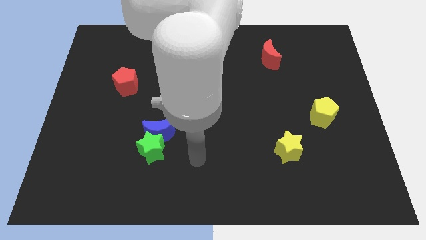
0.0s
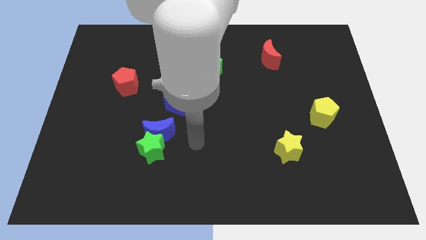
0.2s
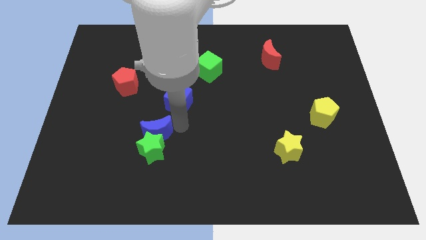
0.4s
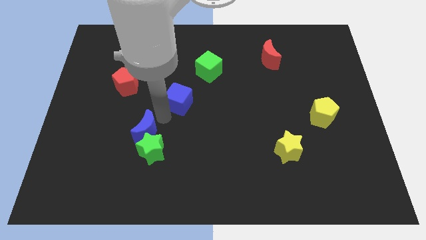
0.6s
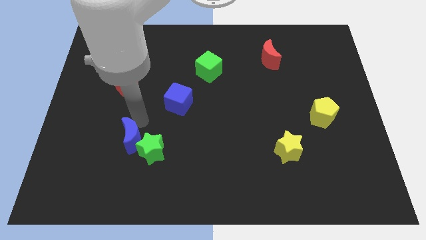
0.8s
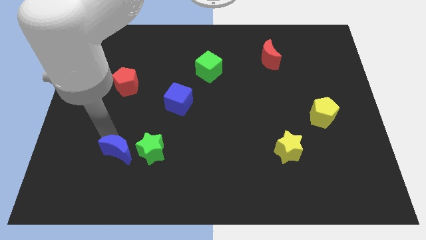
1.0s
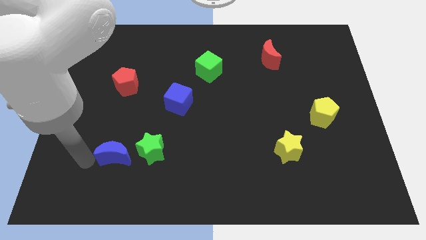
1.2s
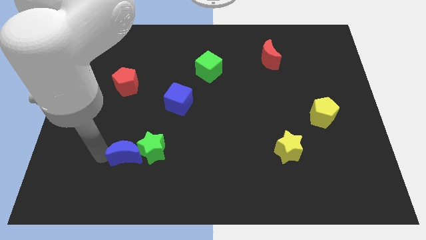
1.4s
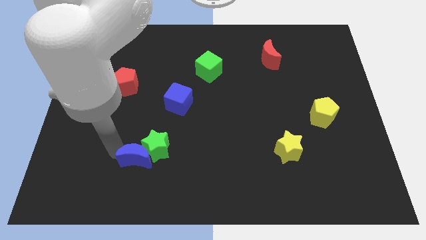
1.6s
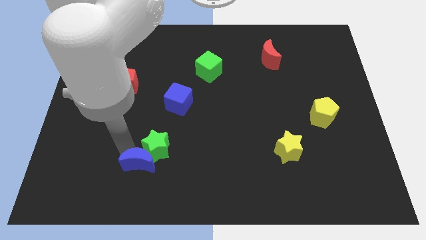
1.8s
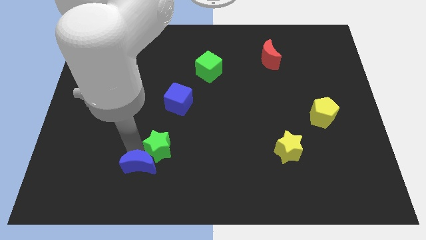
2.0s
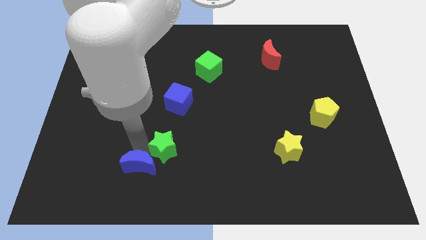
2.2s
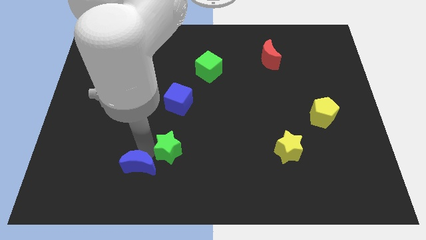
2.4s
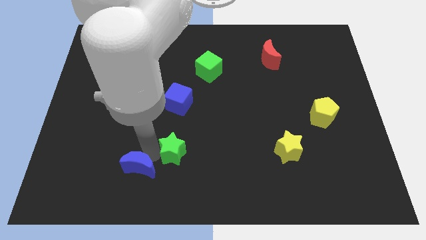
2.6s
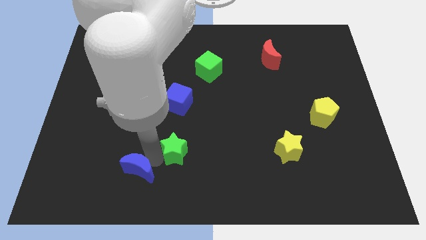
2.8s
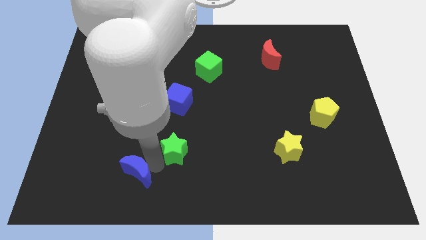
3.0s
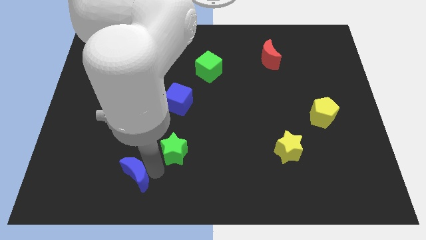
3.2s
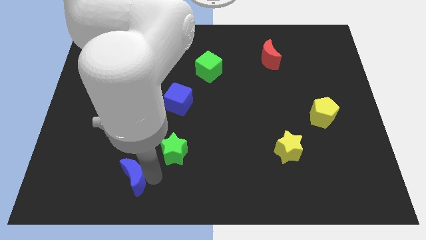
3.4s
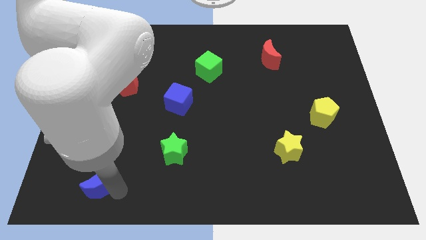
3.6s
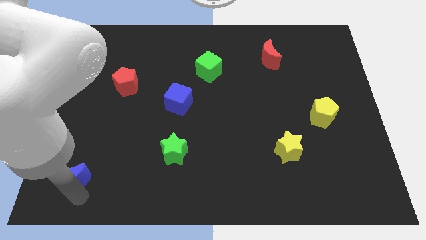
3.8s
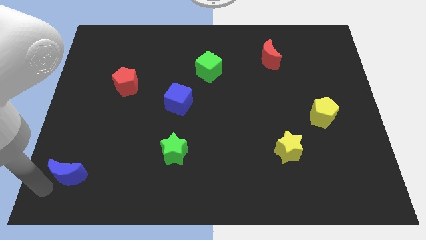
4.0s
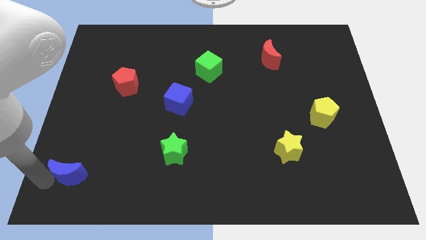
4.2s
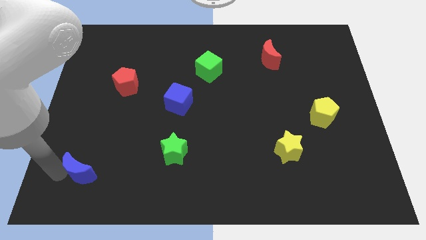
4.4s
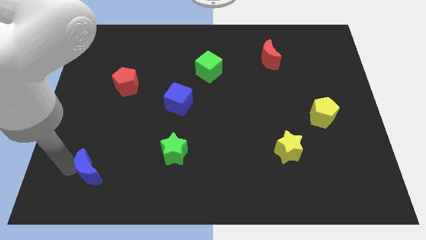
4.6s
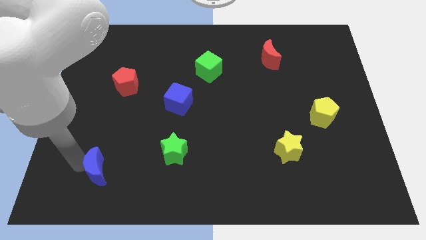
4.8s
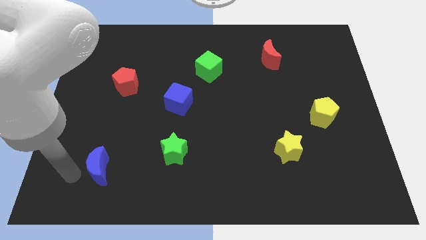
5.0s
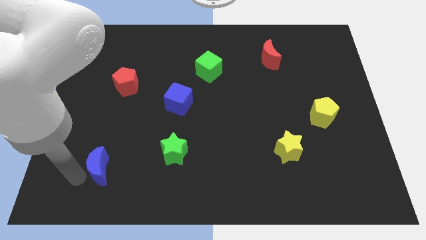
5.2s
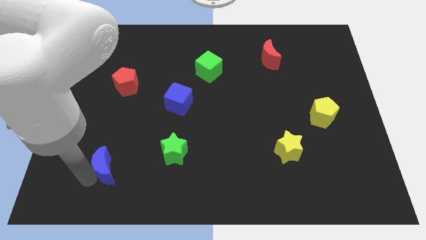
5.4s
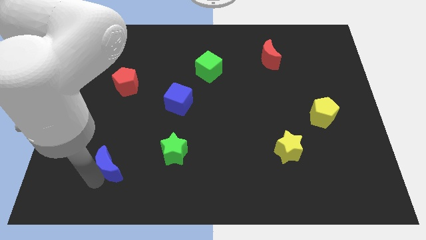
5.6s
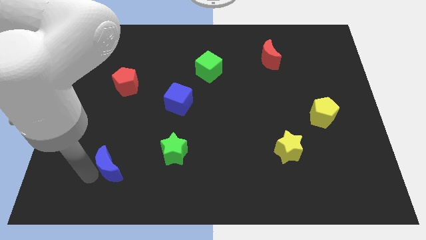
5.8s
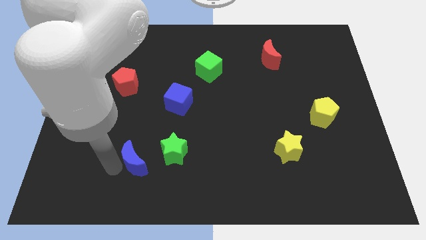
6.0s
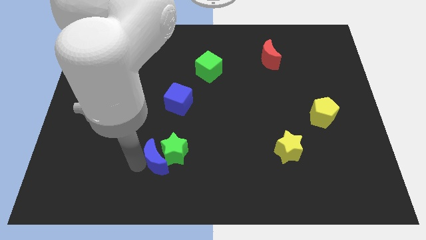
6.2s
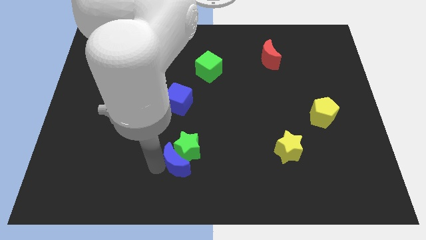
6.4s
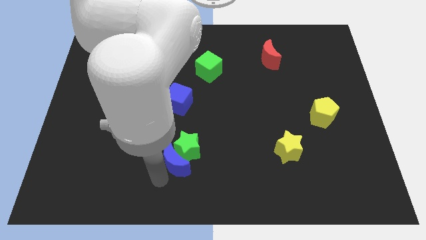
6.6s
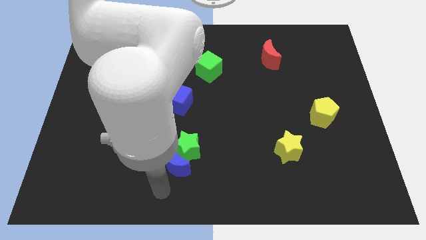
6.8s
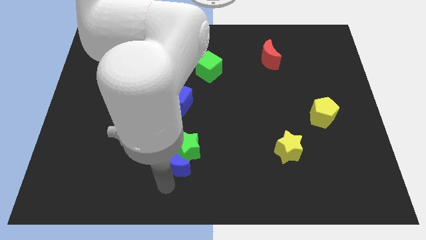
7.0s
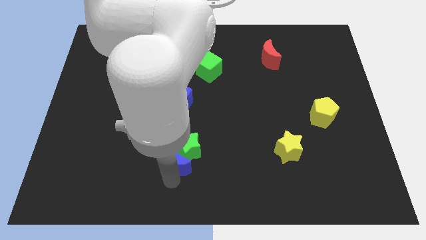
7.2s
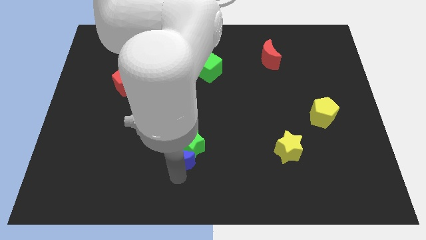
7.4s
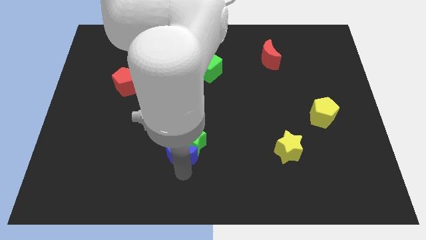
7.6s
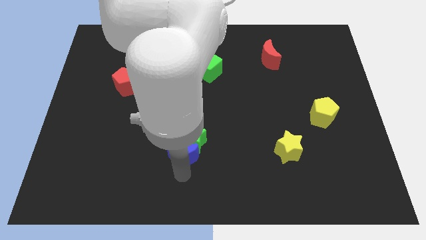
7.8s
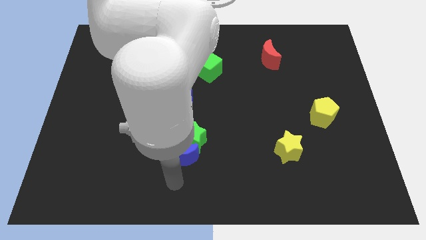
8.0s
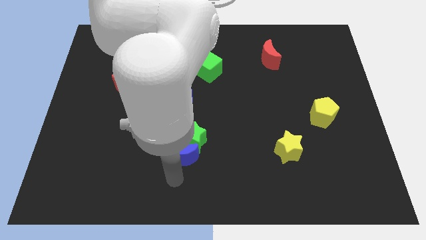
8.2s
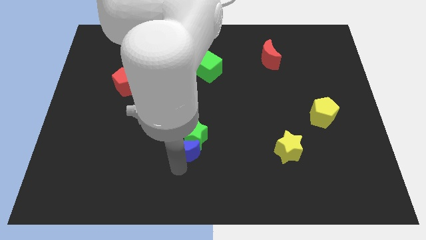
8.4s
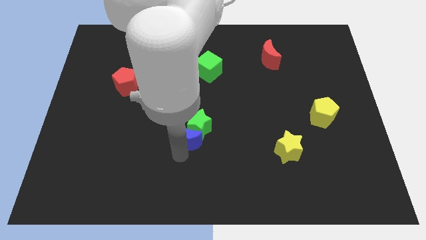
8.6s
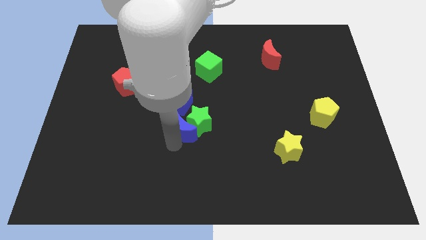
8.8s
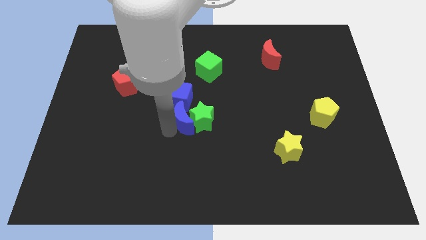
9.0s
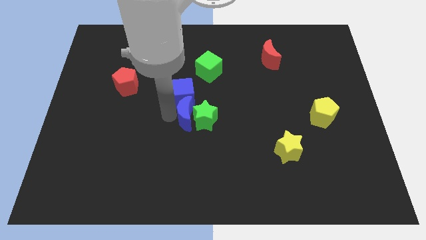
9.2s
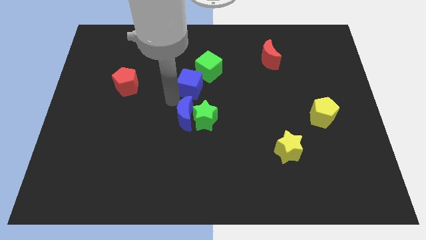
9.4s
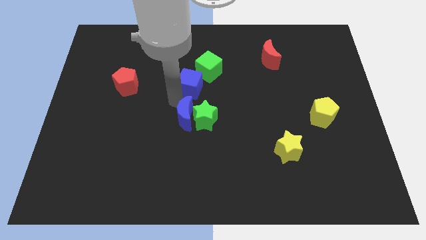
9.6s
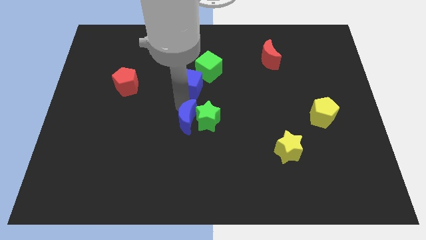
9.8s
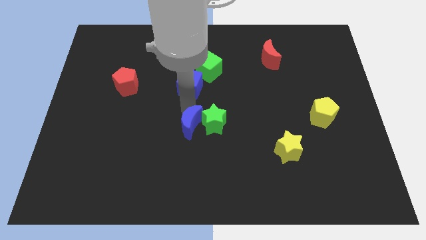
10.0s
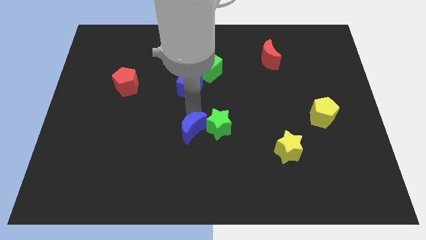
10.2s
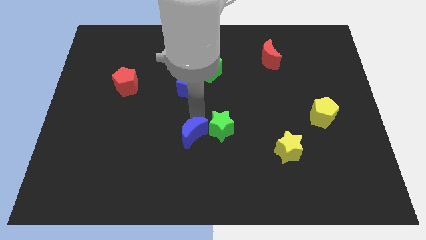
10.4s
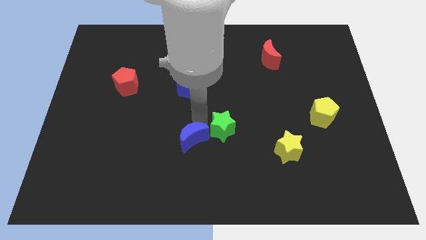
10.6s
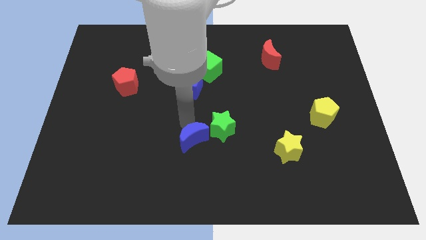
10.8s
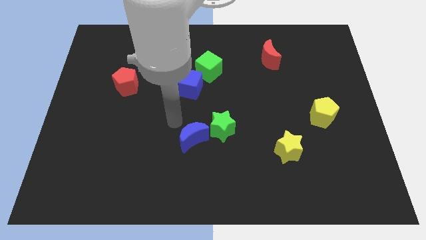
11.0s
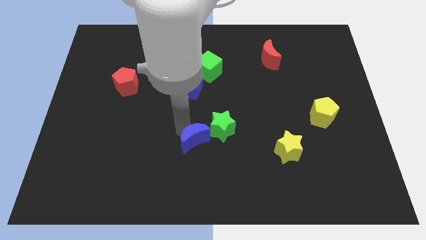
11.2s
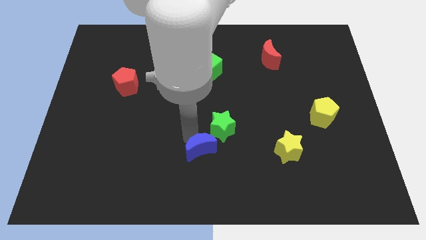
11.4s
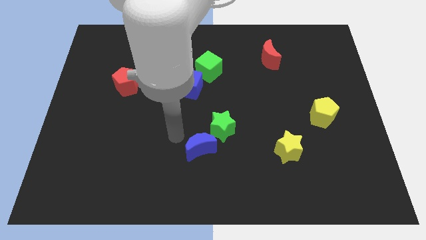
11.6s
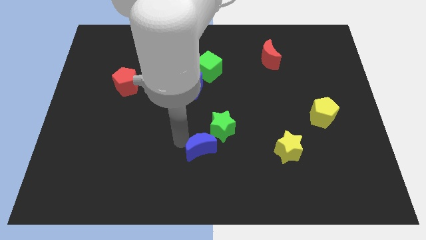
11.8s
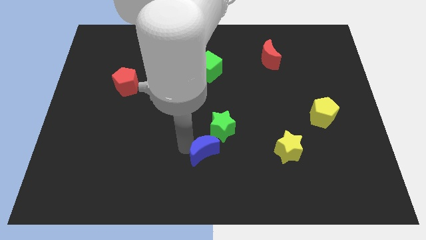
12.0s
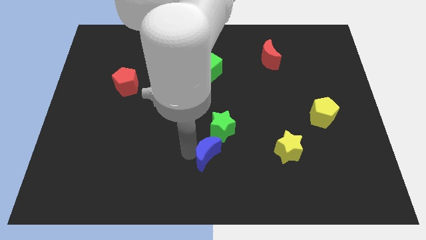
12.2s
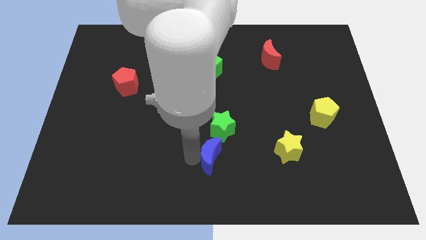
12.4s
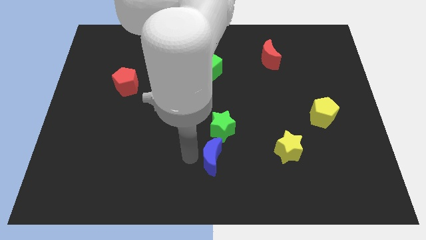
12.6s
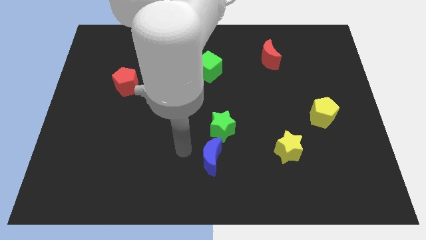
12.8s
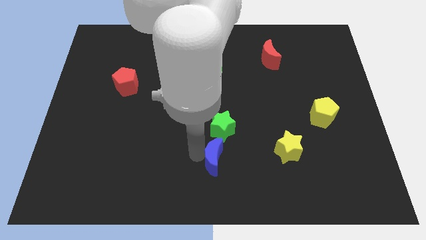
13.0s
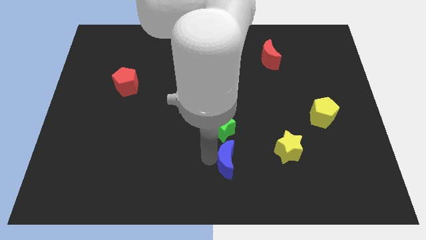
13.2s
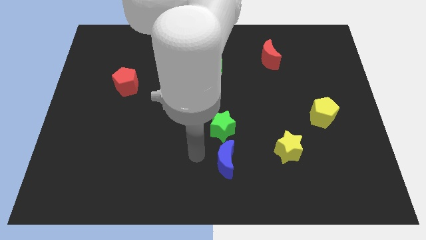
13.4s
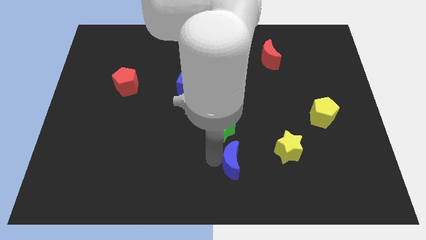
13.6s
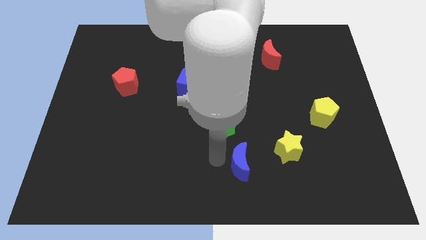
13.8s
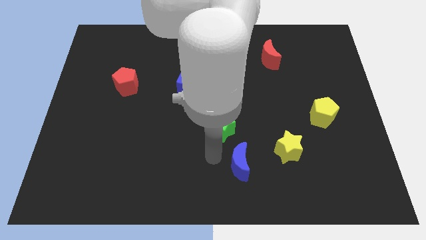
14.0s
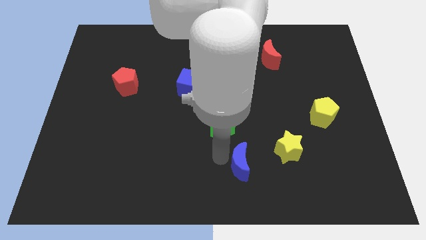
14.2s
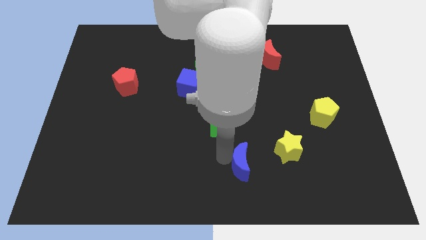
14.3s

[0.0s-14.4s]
put the blue moon to the bottom left side of the yellow star

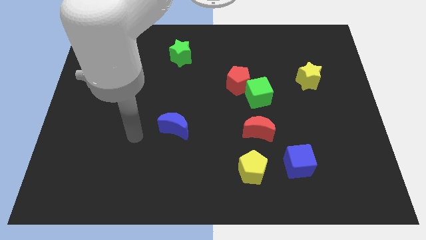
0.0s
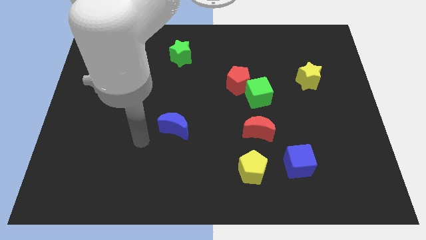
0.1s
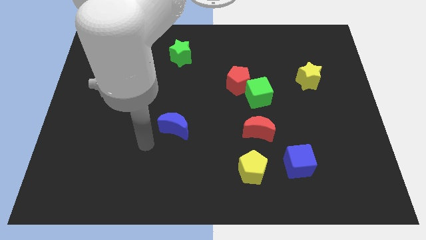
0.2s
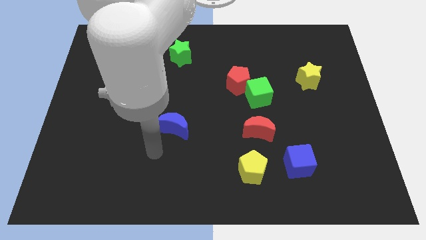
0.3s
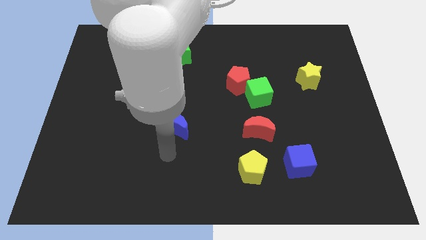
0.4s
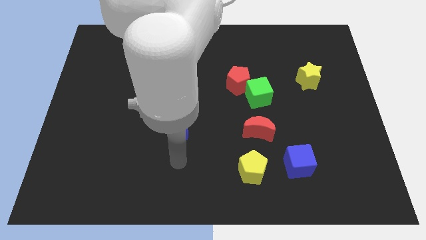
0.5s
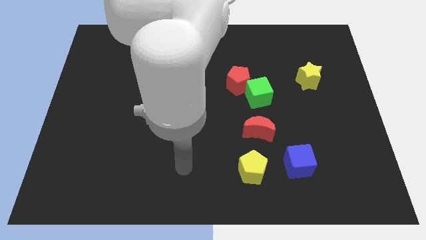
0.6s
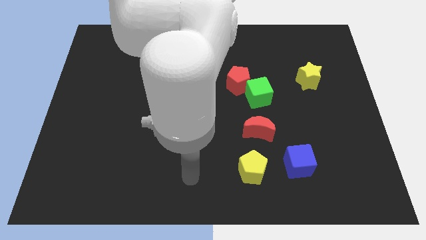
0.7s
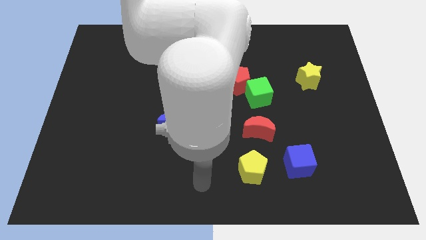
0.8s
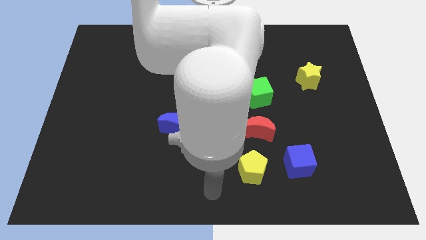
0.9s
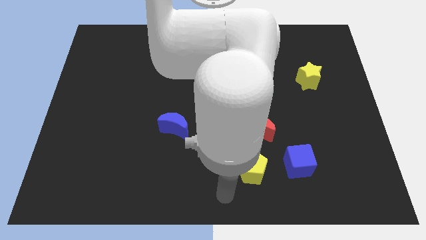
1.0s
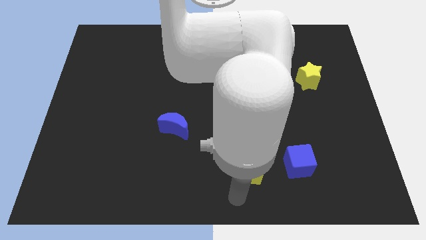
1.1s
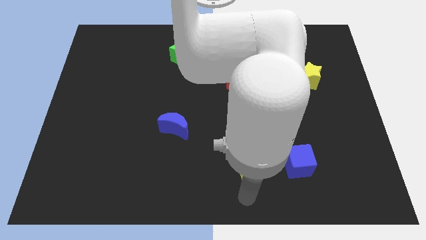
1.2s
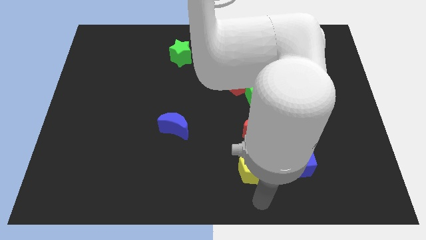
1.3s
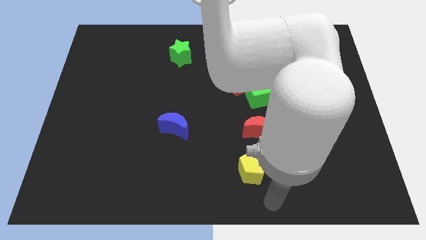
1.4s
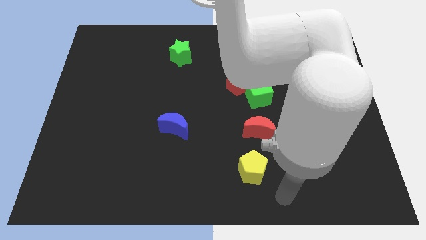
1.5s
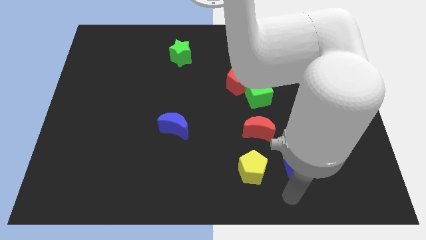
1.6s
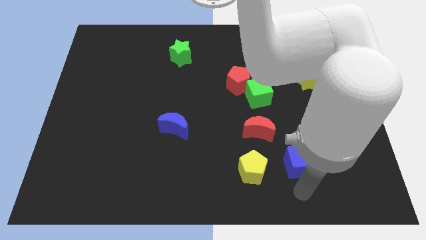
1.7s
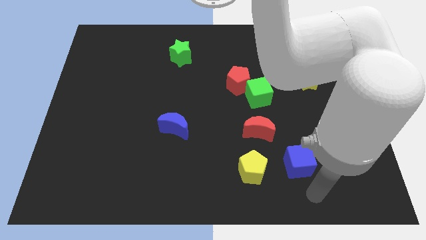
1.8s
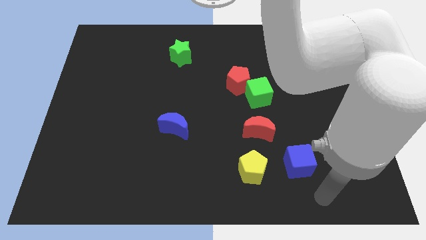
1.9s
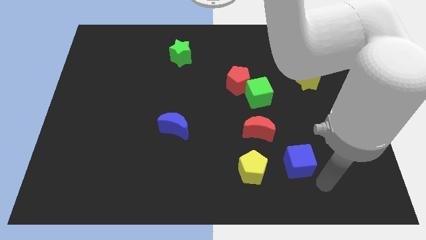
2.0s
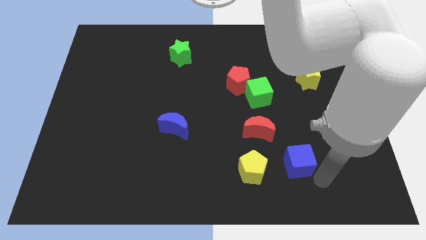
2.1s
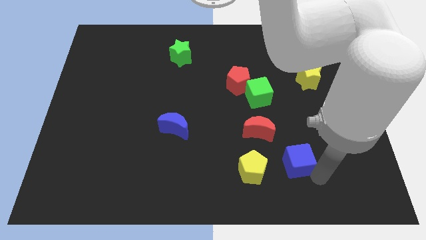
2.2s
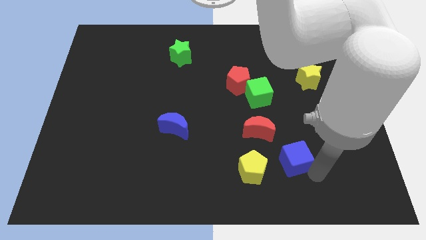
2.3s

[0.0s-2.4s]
push the blue cube diagonally up and to the right of the yellow pentagon
